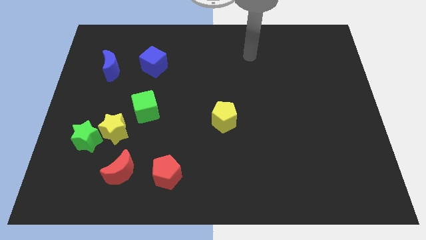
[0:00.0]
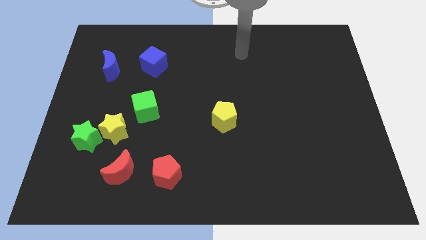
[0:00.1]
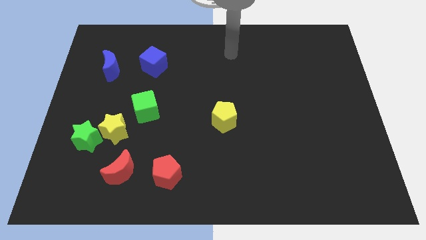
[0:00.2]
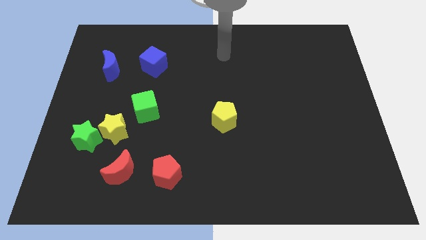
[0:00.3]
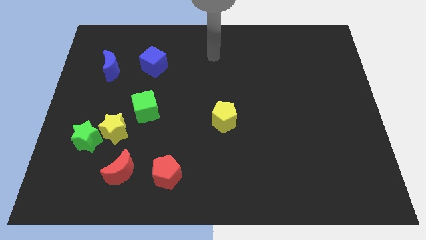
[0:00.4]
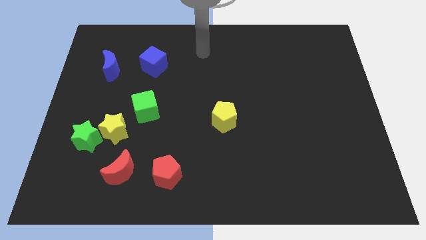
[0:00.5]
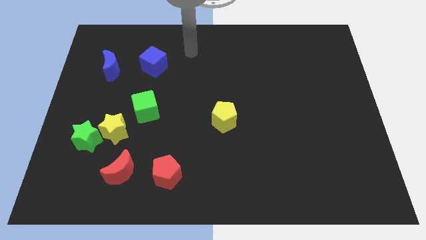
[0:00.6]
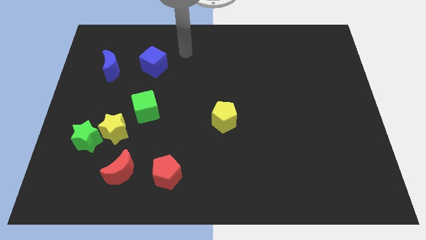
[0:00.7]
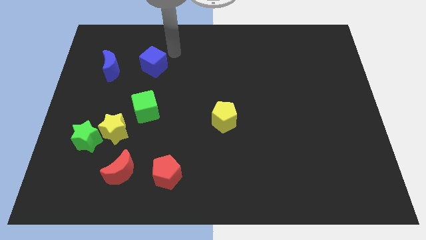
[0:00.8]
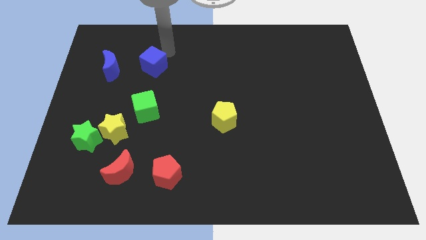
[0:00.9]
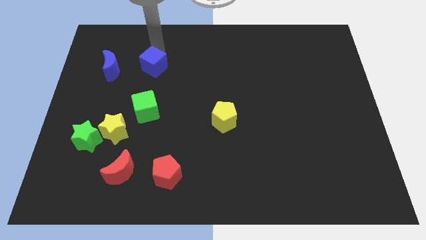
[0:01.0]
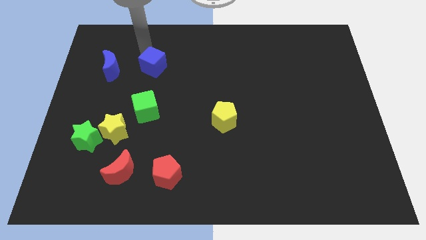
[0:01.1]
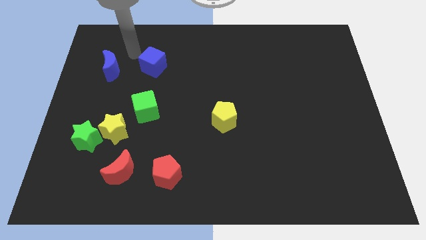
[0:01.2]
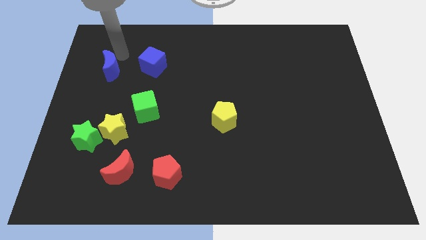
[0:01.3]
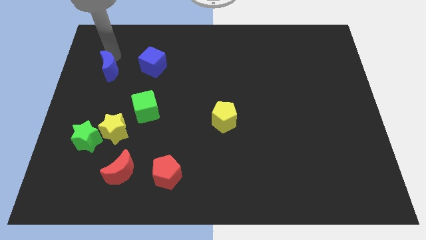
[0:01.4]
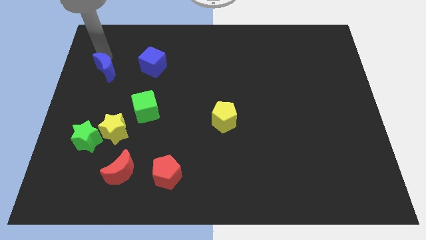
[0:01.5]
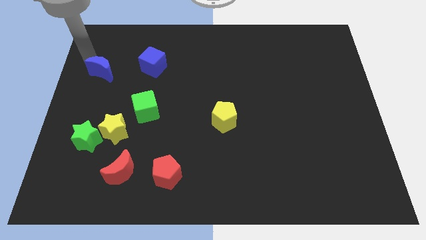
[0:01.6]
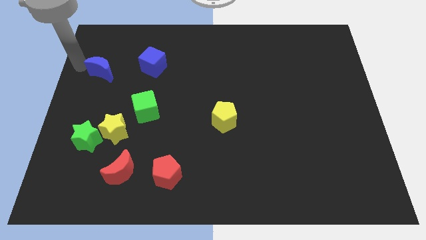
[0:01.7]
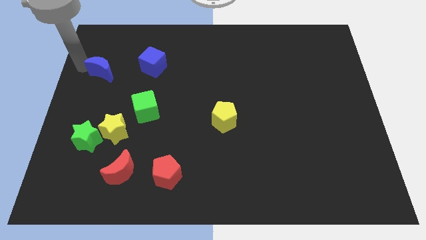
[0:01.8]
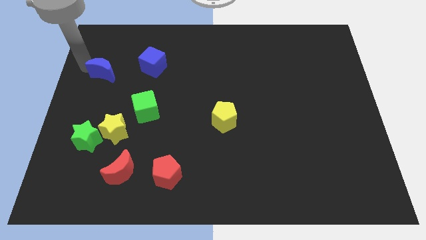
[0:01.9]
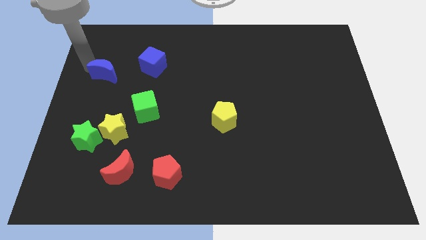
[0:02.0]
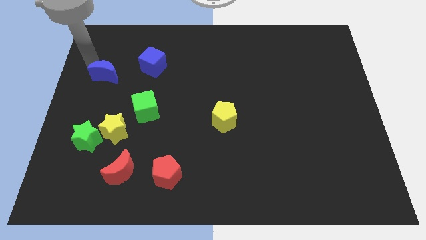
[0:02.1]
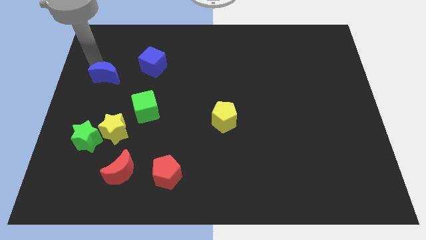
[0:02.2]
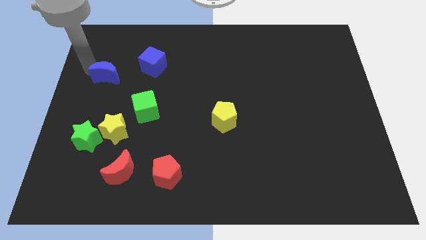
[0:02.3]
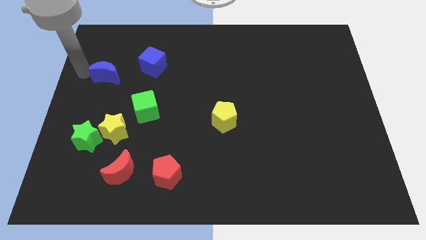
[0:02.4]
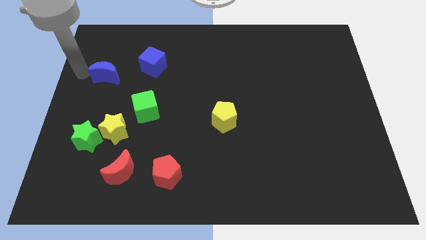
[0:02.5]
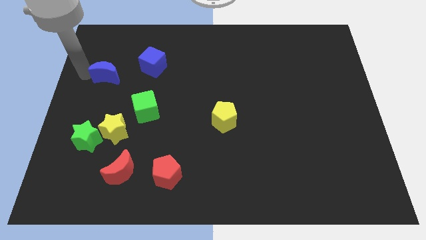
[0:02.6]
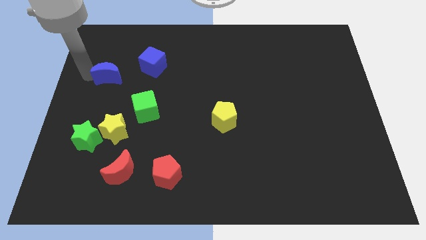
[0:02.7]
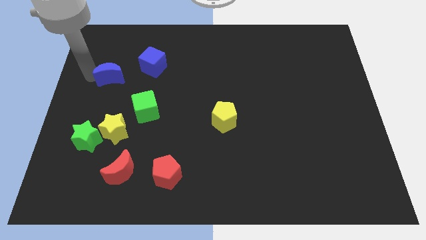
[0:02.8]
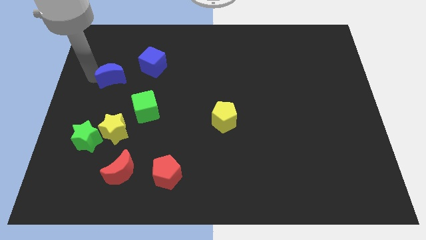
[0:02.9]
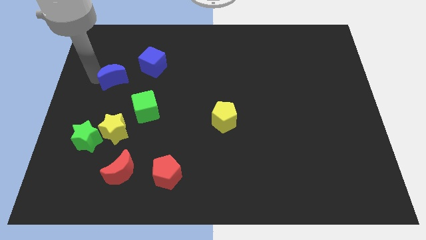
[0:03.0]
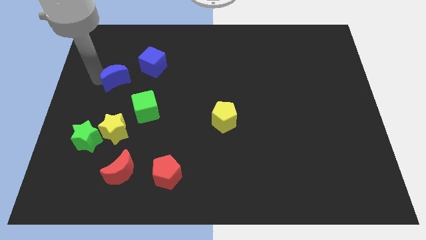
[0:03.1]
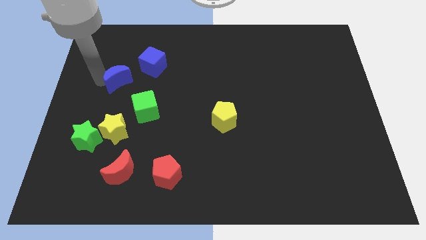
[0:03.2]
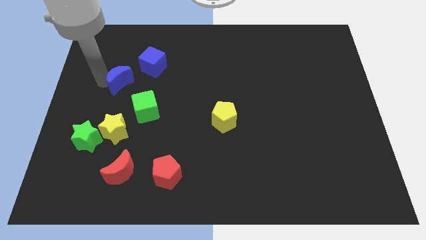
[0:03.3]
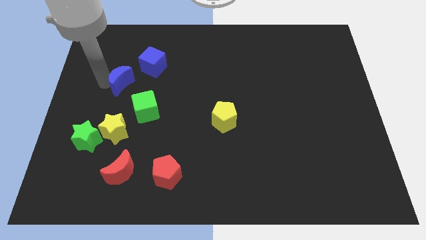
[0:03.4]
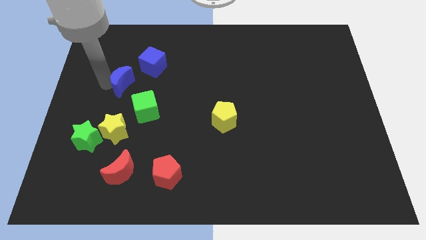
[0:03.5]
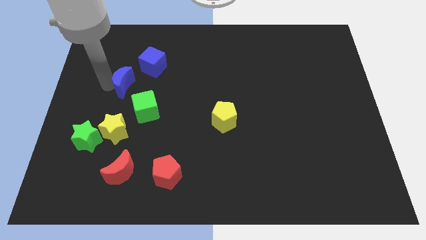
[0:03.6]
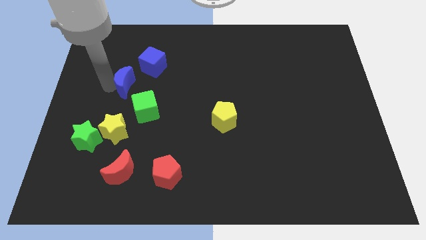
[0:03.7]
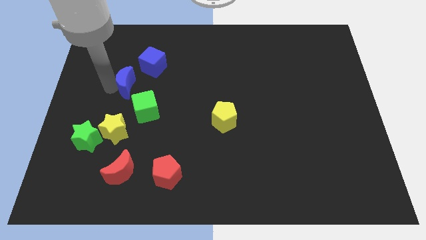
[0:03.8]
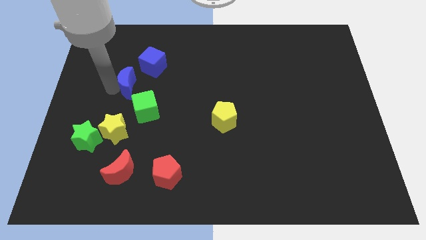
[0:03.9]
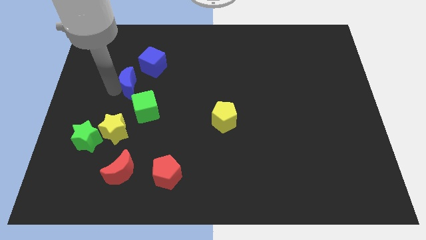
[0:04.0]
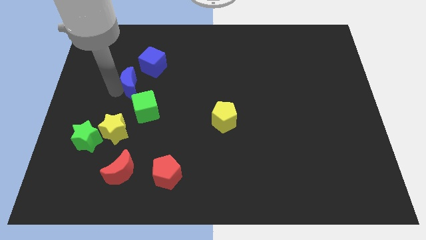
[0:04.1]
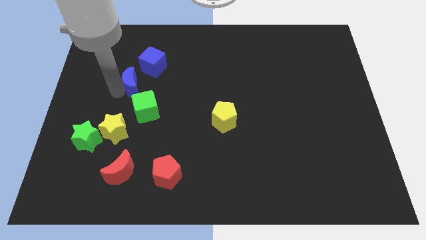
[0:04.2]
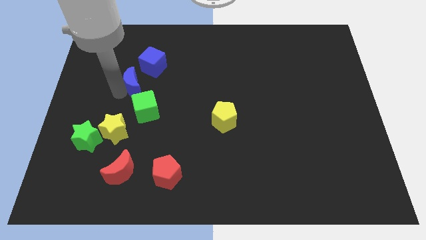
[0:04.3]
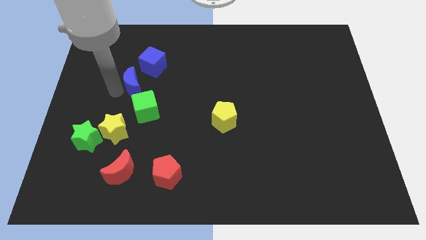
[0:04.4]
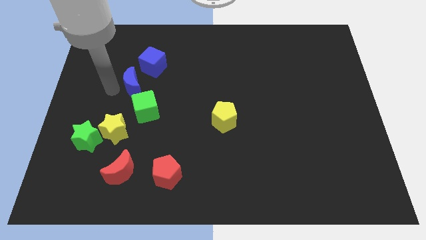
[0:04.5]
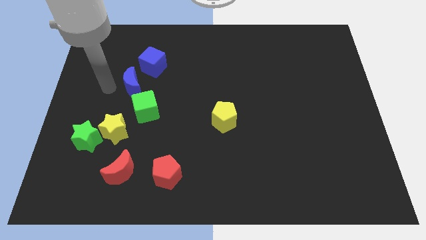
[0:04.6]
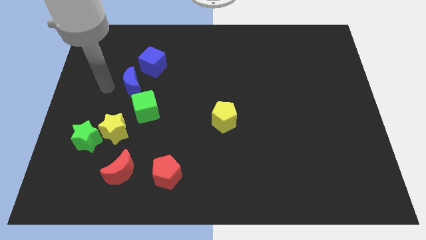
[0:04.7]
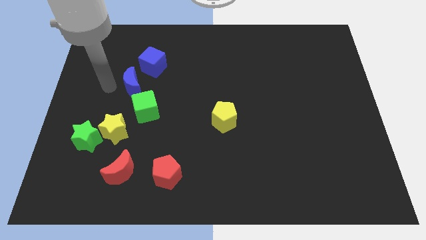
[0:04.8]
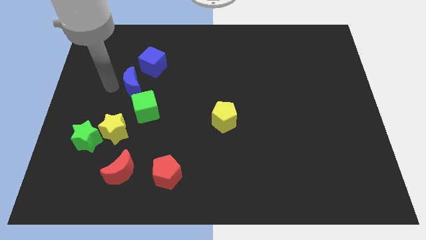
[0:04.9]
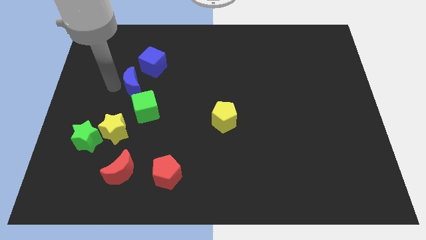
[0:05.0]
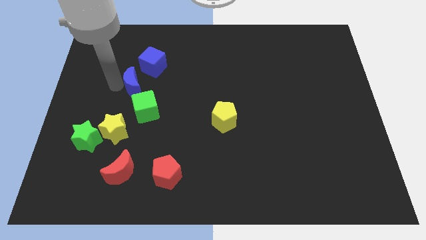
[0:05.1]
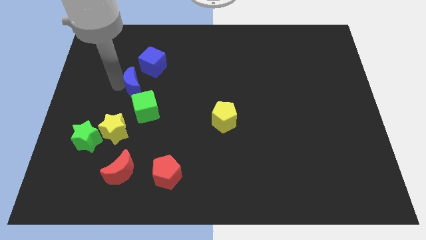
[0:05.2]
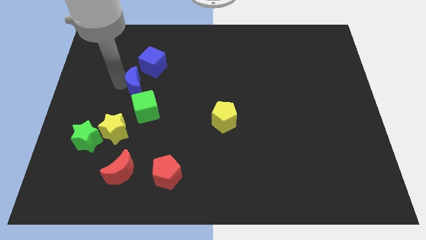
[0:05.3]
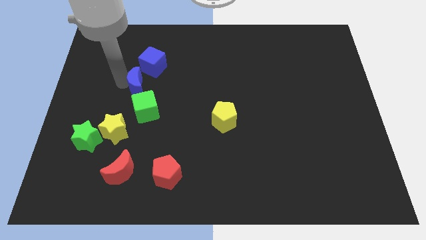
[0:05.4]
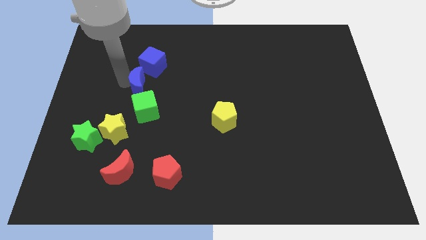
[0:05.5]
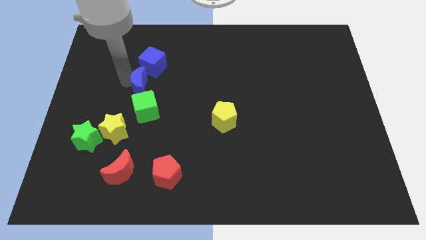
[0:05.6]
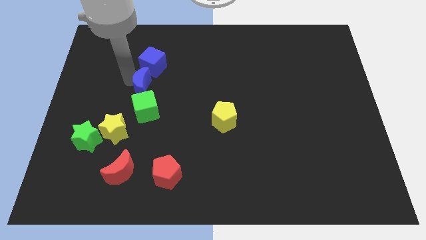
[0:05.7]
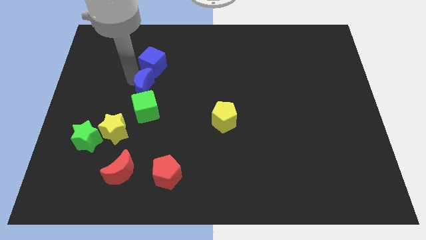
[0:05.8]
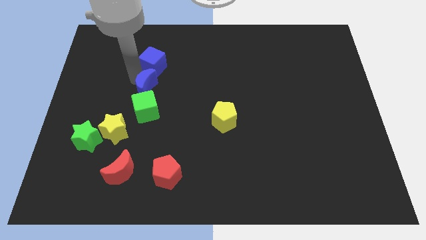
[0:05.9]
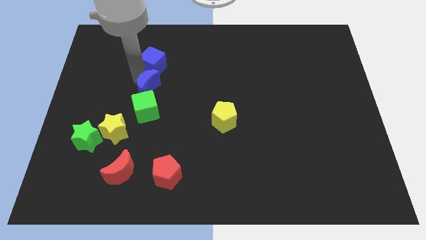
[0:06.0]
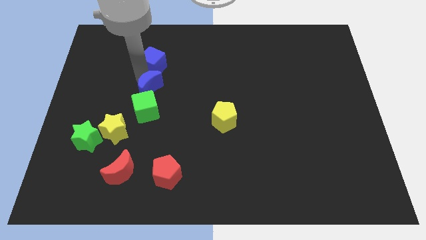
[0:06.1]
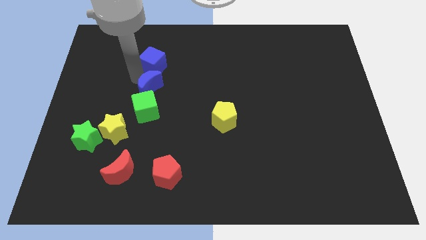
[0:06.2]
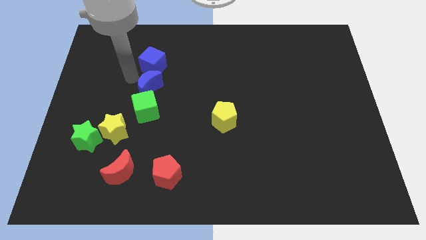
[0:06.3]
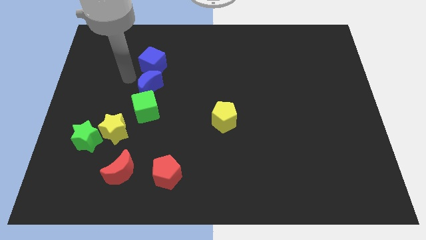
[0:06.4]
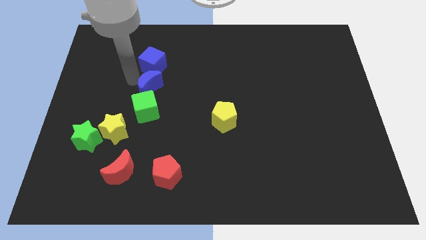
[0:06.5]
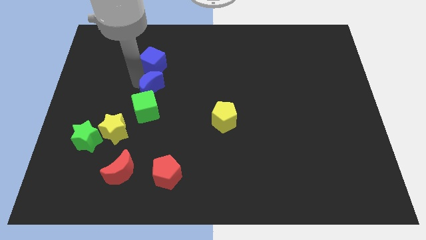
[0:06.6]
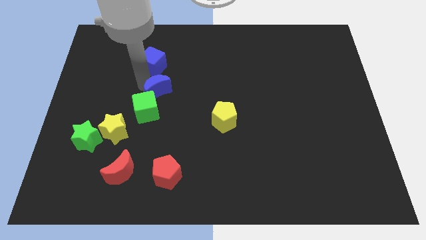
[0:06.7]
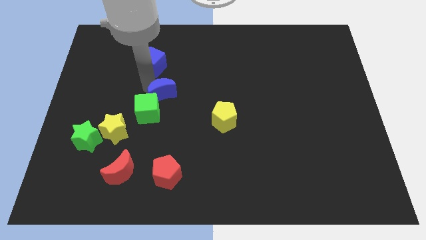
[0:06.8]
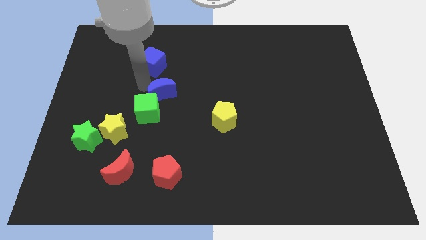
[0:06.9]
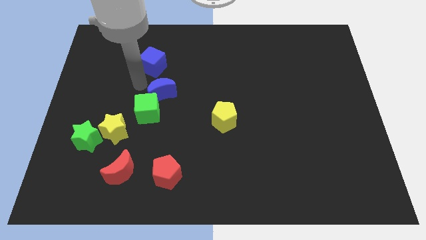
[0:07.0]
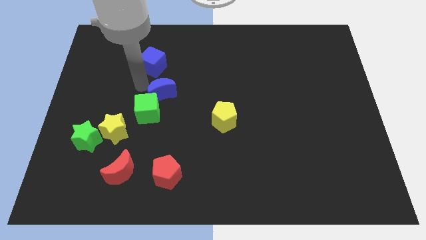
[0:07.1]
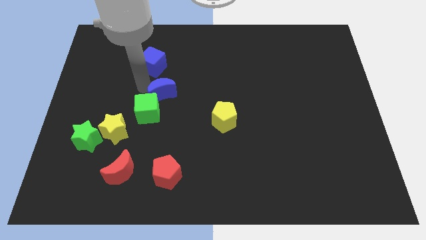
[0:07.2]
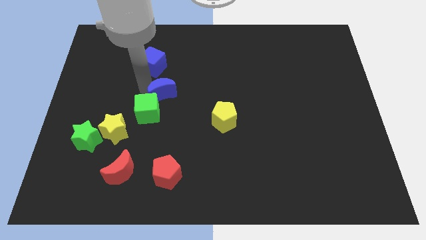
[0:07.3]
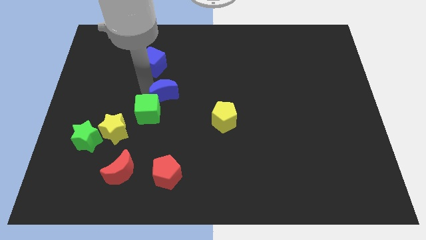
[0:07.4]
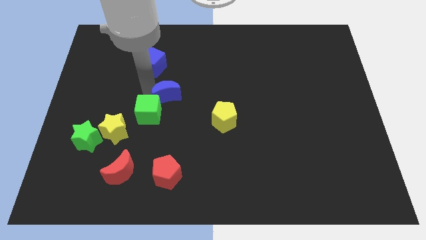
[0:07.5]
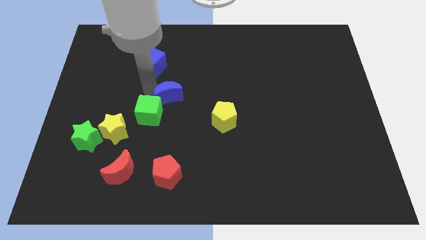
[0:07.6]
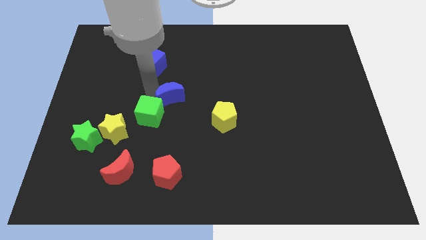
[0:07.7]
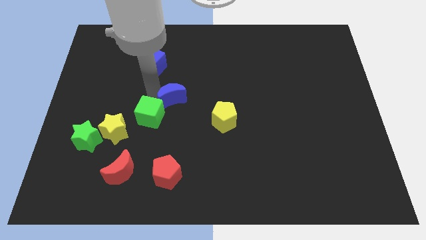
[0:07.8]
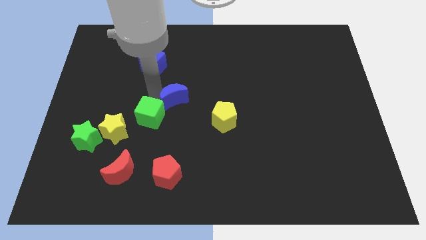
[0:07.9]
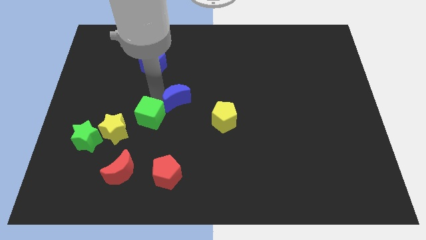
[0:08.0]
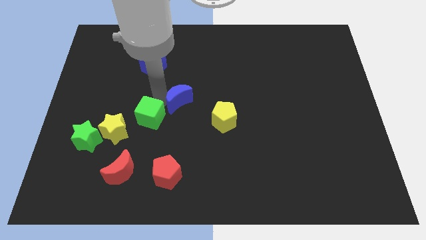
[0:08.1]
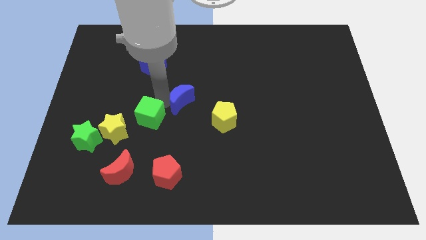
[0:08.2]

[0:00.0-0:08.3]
slide the blue moon diagonally up and to the left of the yellow pentagon
